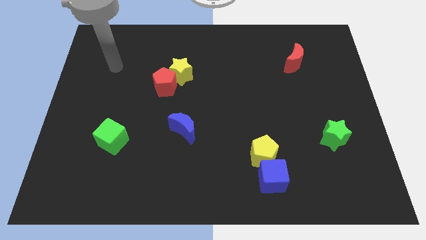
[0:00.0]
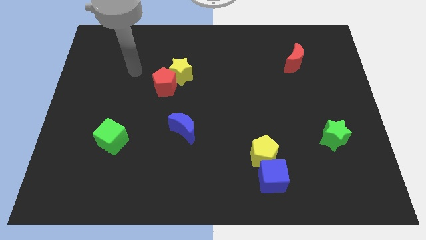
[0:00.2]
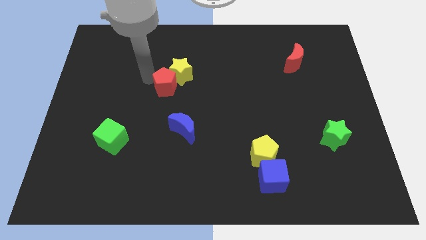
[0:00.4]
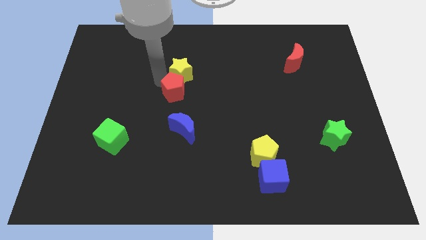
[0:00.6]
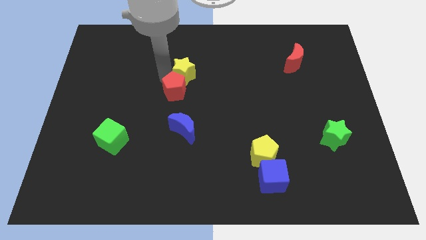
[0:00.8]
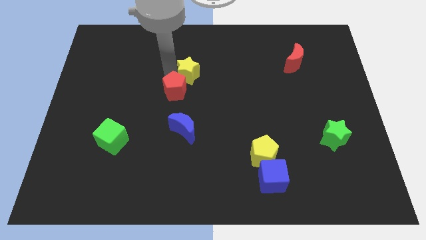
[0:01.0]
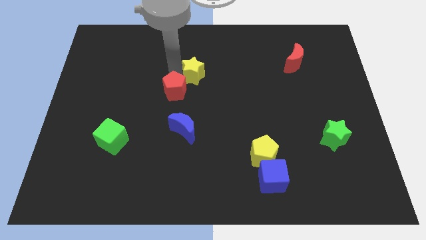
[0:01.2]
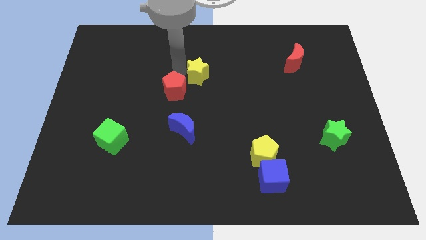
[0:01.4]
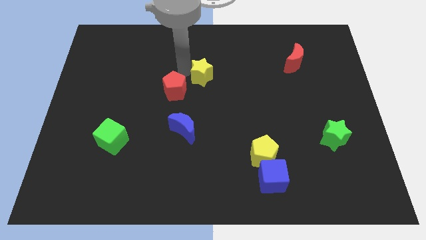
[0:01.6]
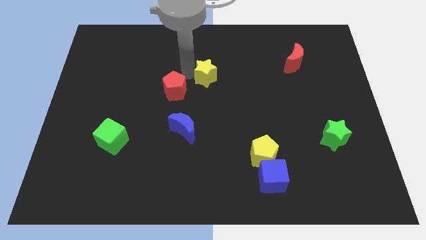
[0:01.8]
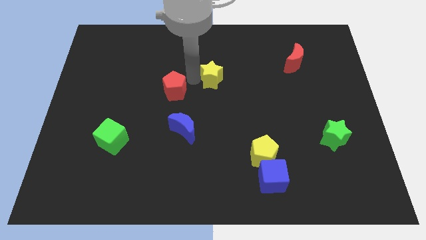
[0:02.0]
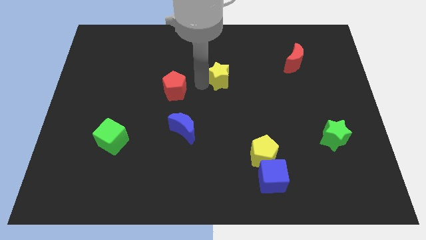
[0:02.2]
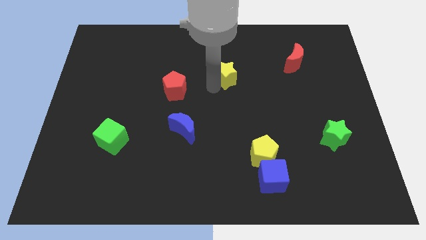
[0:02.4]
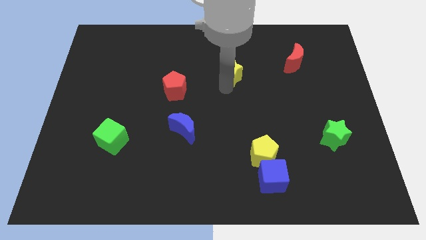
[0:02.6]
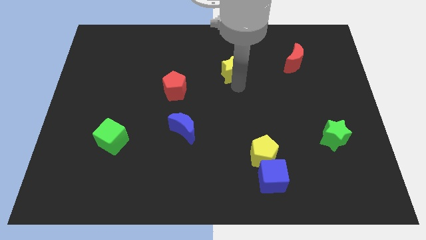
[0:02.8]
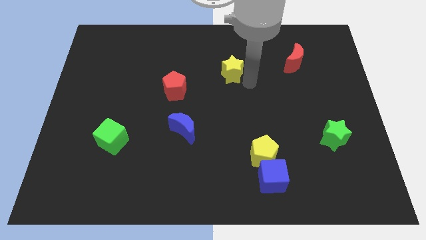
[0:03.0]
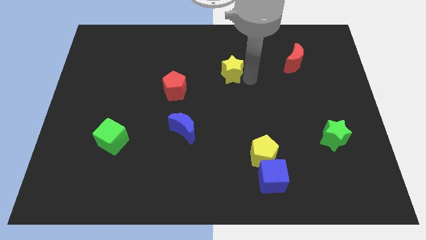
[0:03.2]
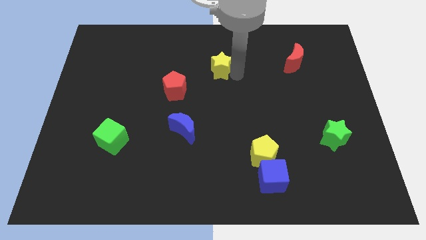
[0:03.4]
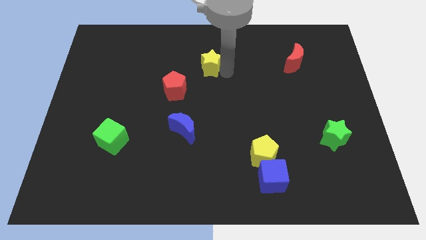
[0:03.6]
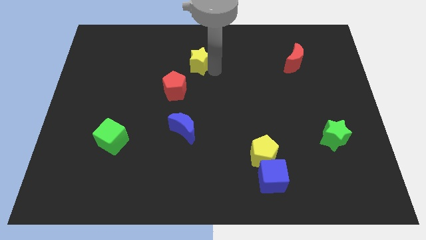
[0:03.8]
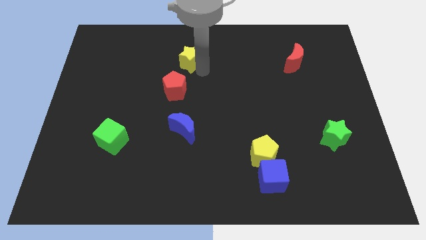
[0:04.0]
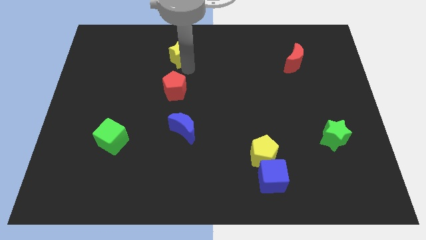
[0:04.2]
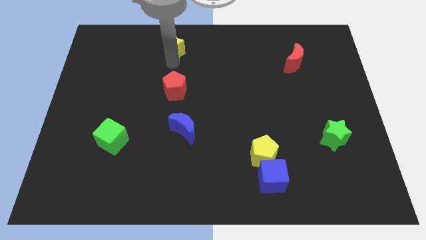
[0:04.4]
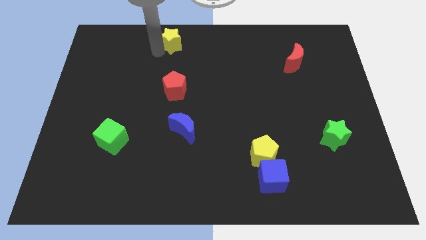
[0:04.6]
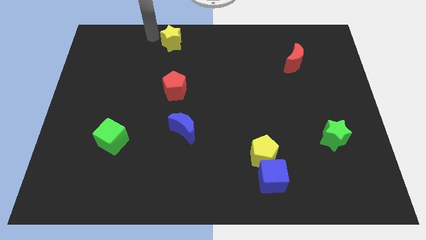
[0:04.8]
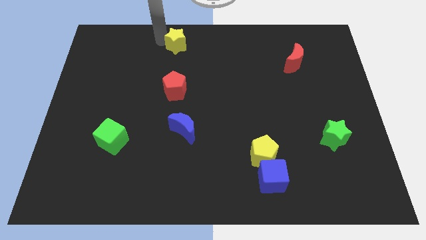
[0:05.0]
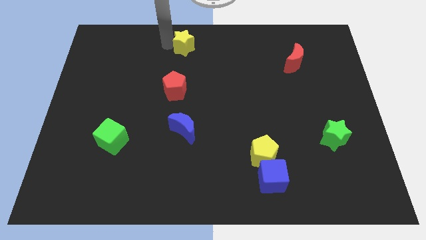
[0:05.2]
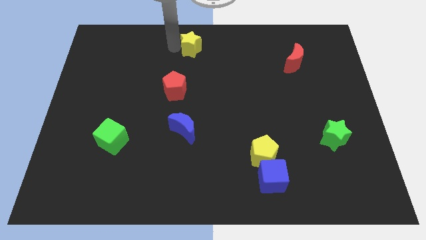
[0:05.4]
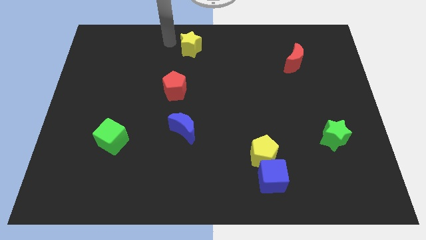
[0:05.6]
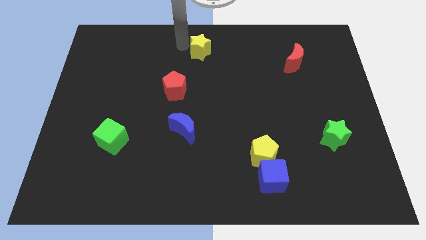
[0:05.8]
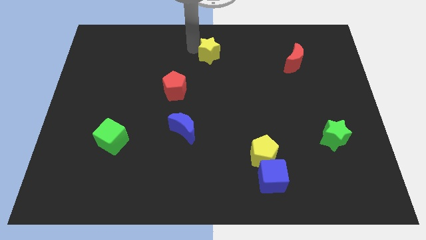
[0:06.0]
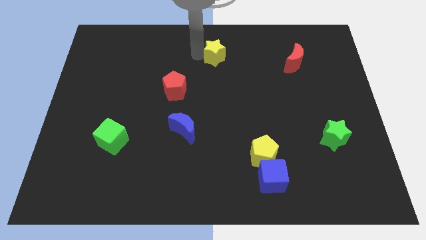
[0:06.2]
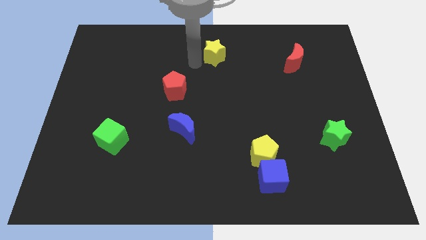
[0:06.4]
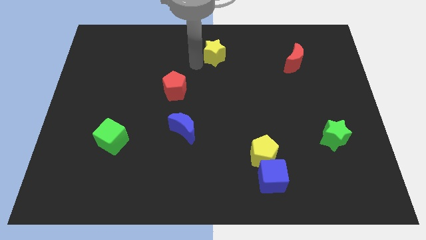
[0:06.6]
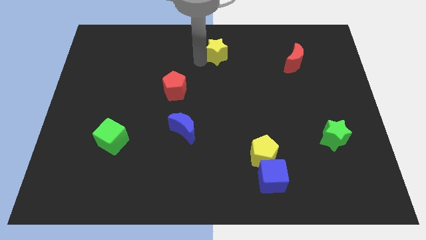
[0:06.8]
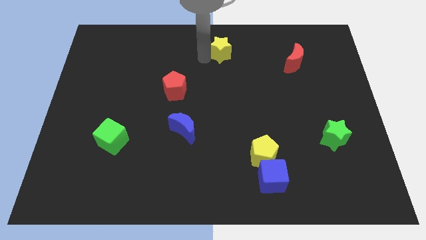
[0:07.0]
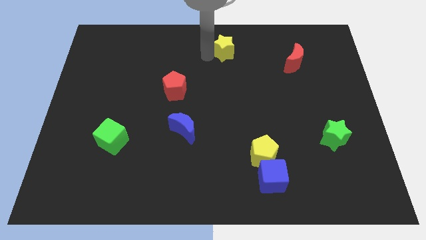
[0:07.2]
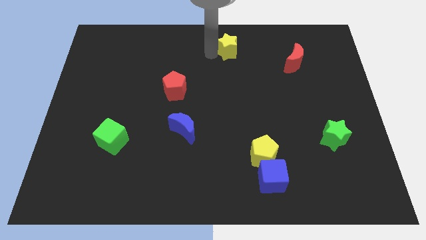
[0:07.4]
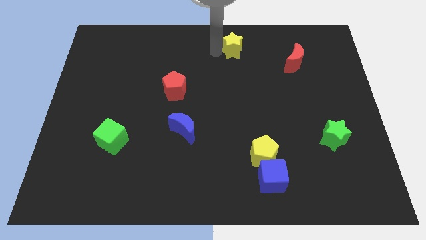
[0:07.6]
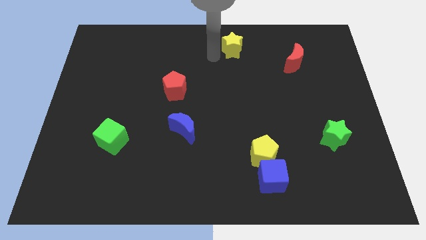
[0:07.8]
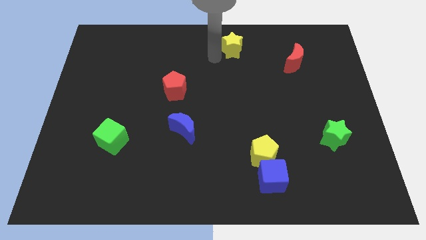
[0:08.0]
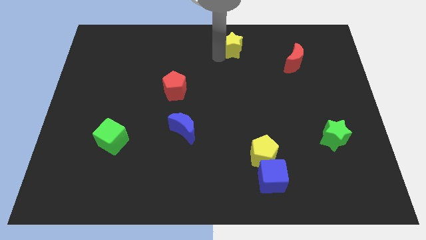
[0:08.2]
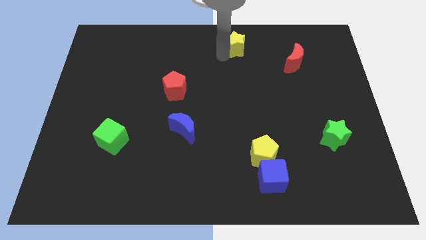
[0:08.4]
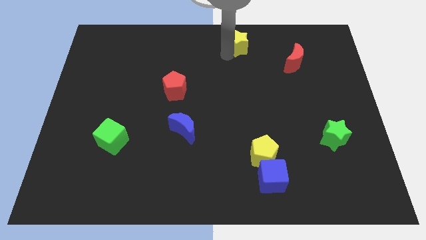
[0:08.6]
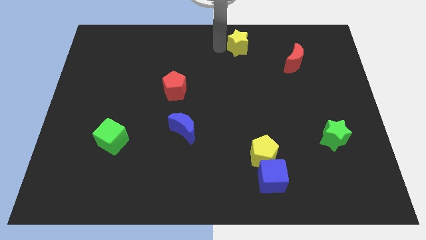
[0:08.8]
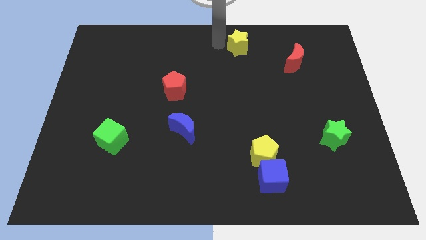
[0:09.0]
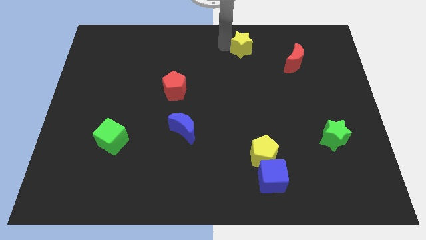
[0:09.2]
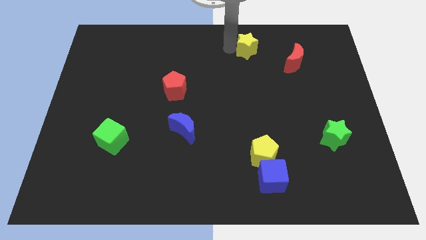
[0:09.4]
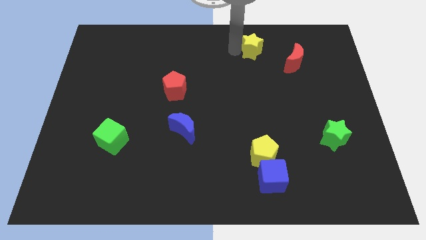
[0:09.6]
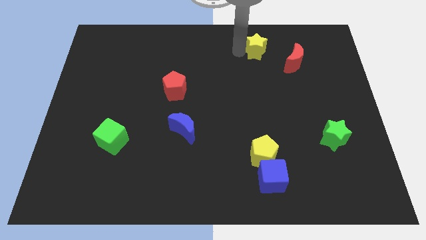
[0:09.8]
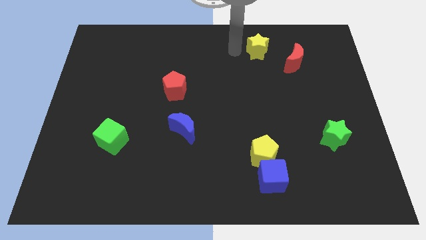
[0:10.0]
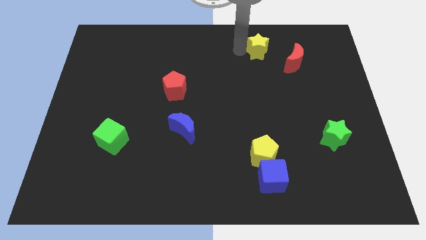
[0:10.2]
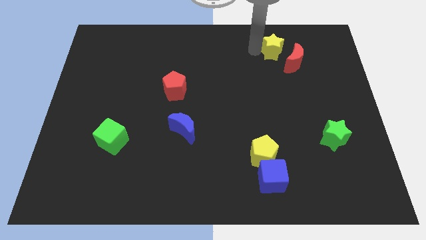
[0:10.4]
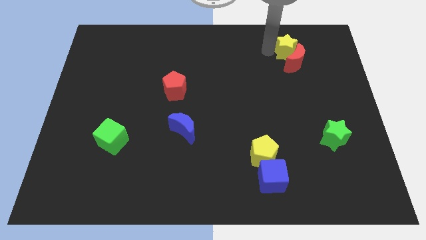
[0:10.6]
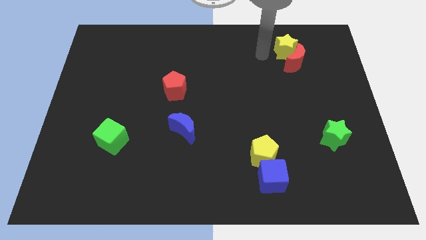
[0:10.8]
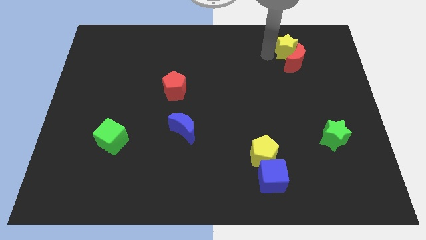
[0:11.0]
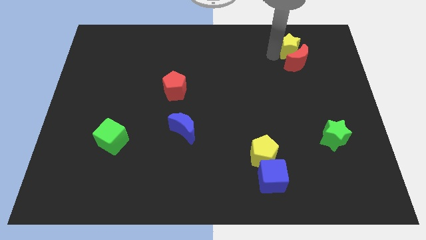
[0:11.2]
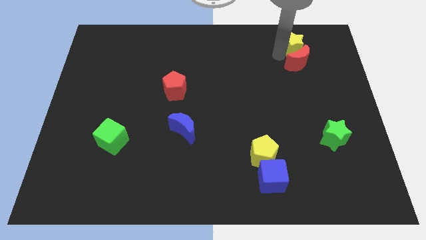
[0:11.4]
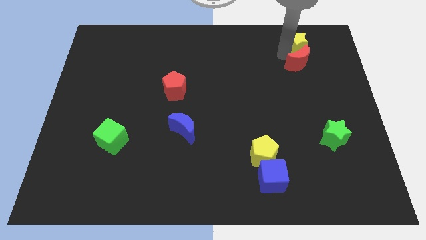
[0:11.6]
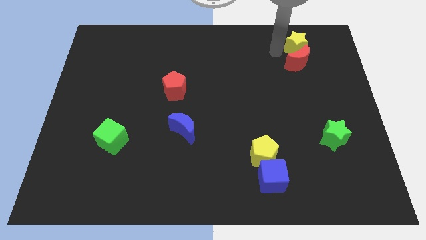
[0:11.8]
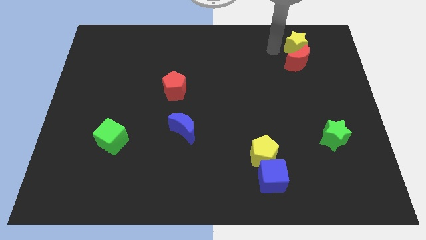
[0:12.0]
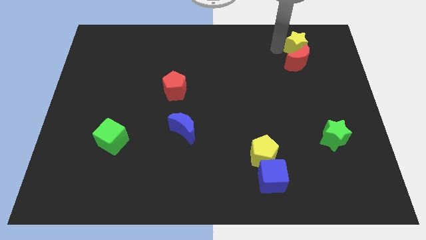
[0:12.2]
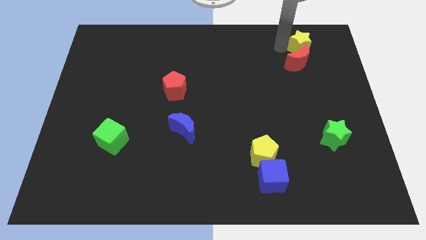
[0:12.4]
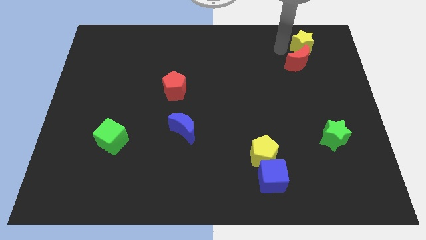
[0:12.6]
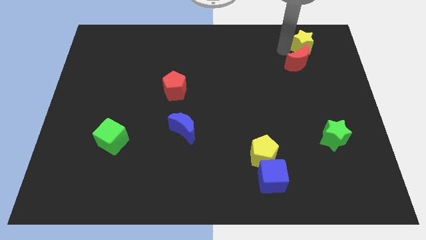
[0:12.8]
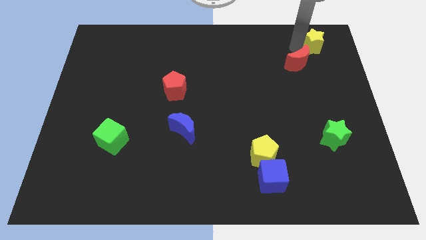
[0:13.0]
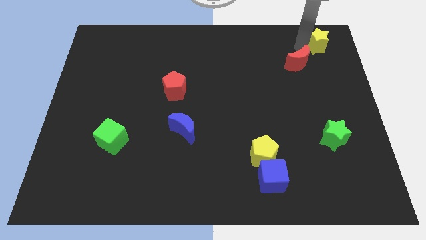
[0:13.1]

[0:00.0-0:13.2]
move the yellow star to the top right of the board

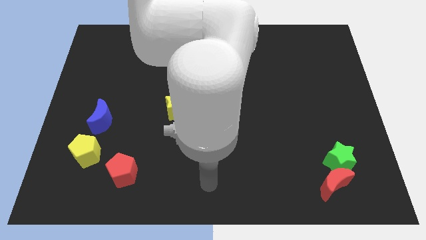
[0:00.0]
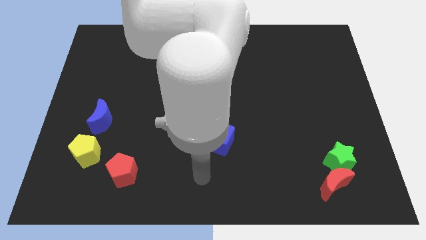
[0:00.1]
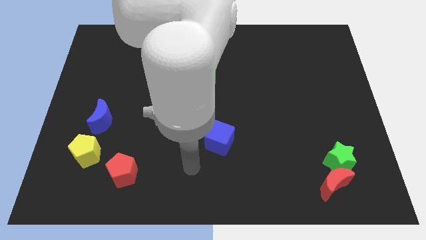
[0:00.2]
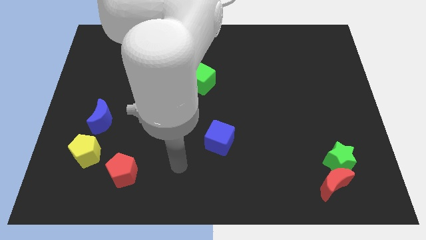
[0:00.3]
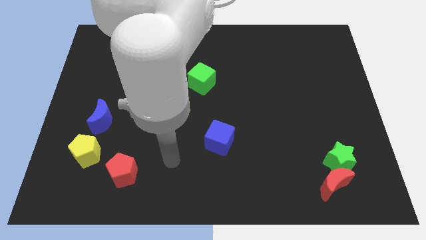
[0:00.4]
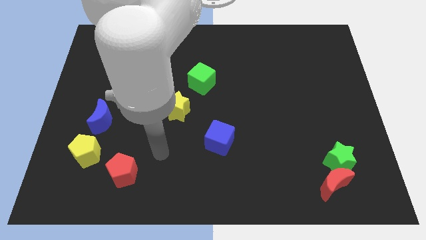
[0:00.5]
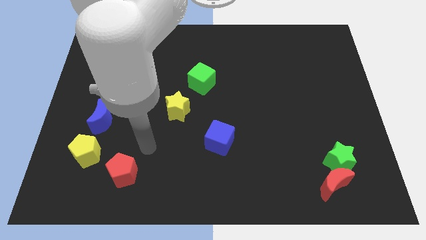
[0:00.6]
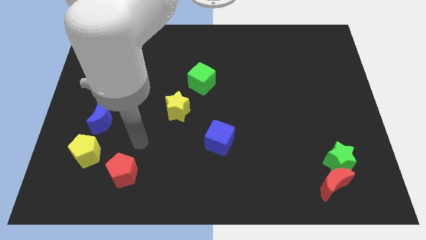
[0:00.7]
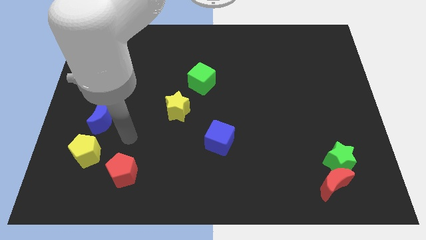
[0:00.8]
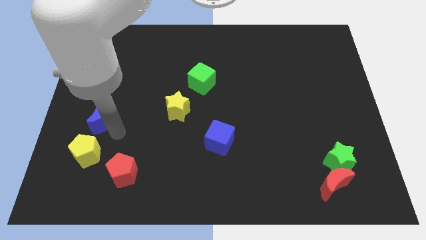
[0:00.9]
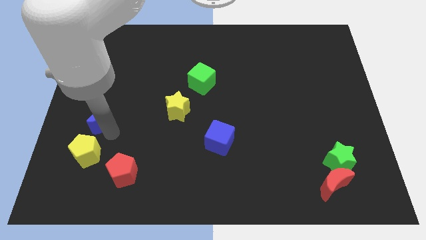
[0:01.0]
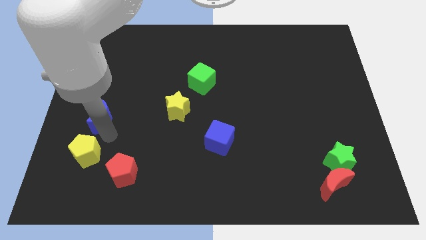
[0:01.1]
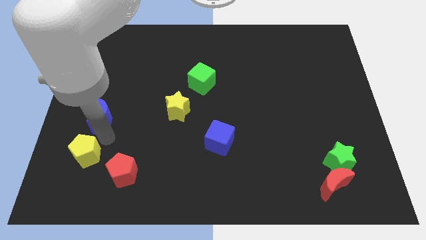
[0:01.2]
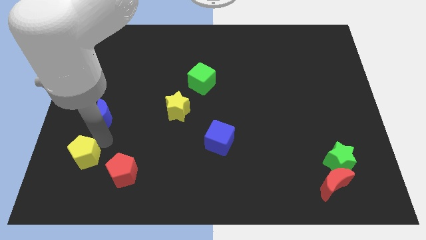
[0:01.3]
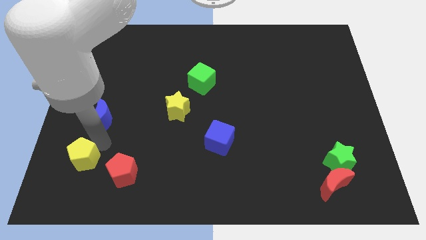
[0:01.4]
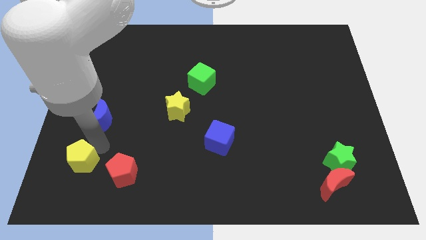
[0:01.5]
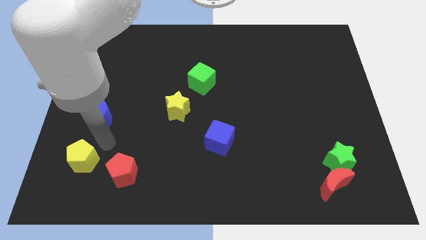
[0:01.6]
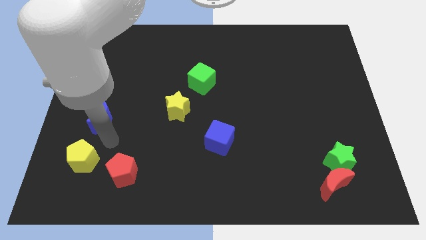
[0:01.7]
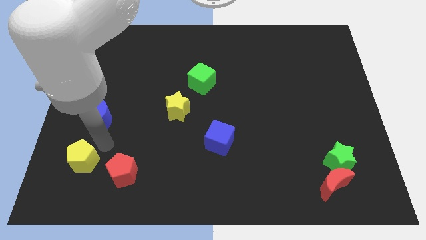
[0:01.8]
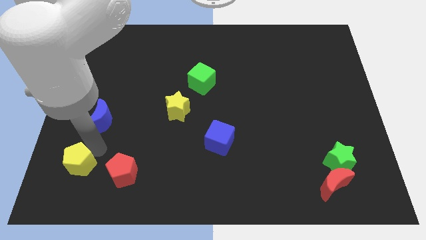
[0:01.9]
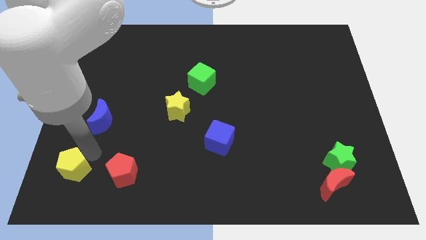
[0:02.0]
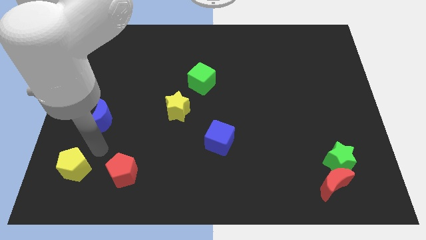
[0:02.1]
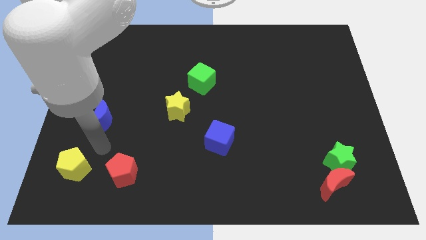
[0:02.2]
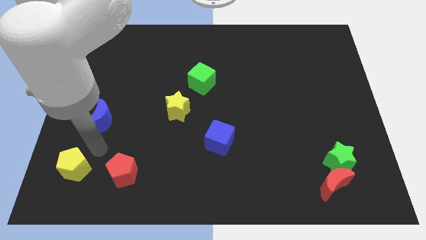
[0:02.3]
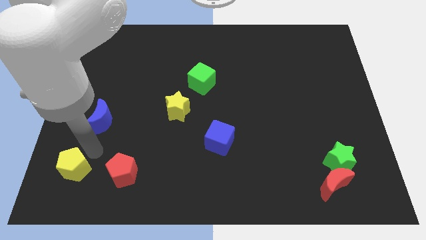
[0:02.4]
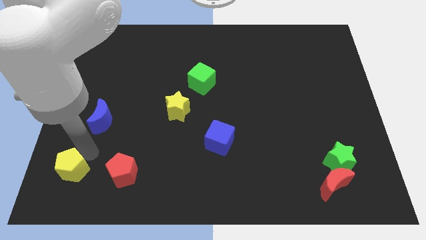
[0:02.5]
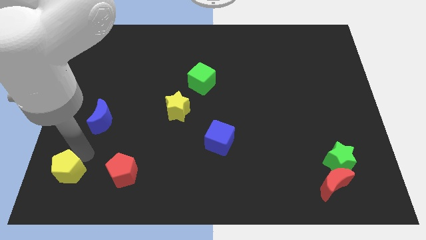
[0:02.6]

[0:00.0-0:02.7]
put the yellow pentagon to the lower left corner
